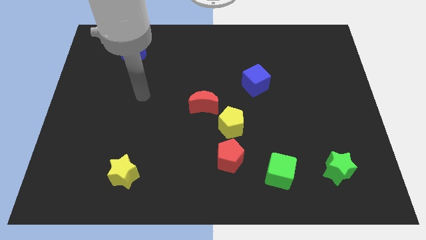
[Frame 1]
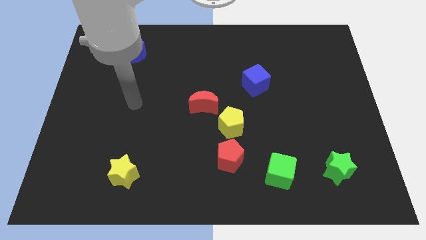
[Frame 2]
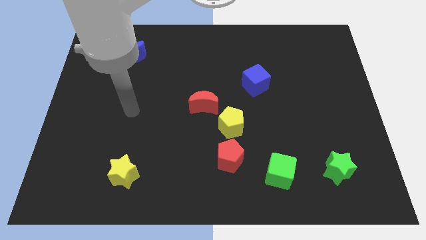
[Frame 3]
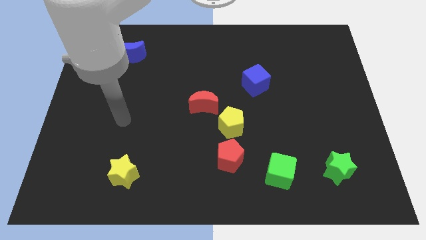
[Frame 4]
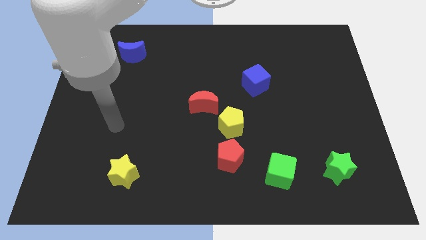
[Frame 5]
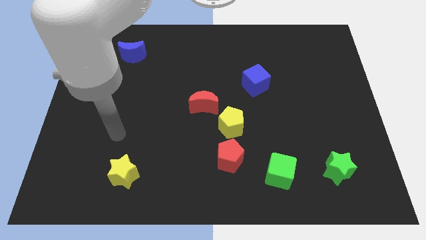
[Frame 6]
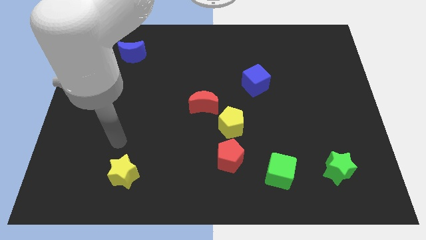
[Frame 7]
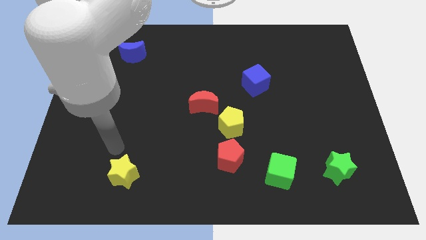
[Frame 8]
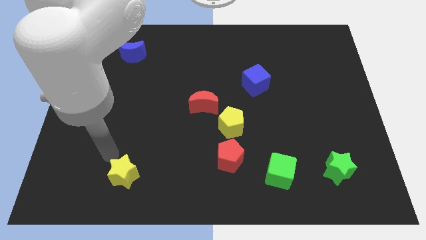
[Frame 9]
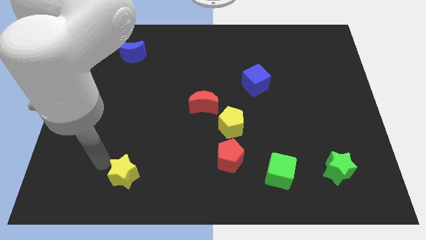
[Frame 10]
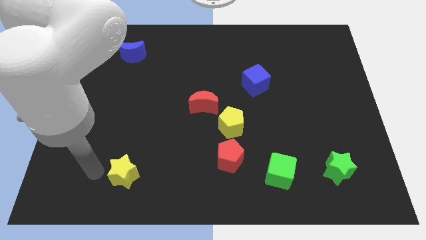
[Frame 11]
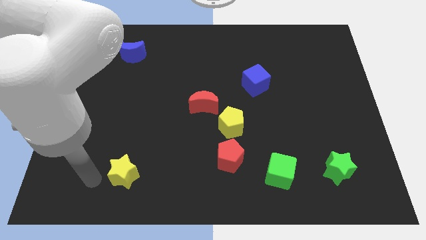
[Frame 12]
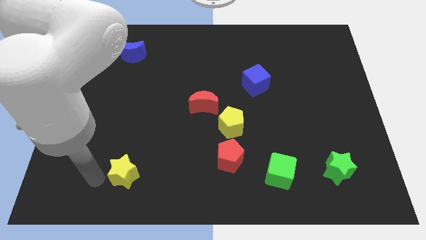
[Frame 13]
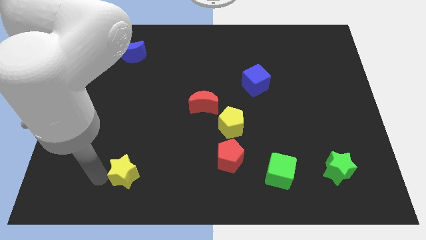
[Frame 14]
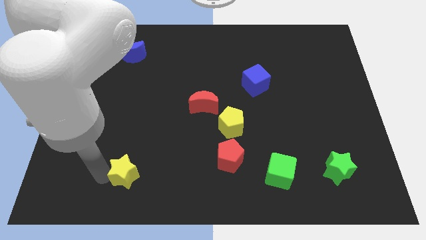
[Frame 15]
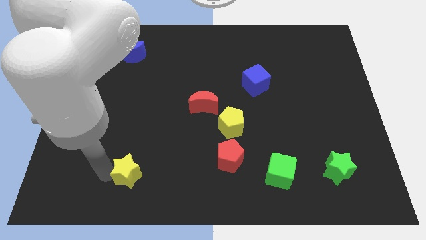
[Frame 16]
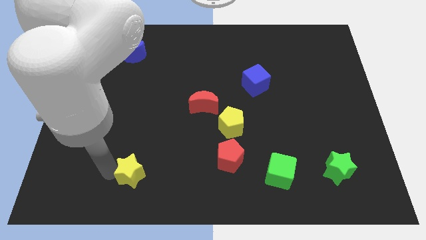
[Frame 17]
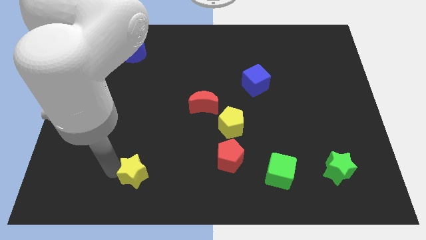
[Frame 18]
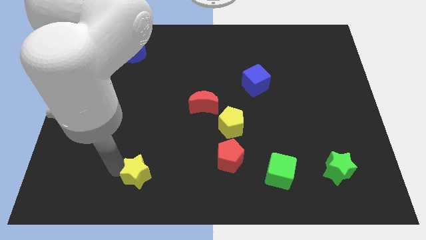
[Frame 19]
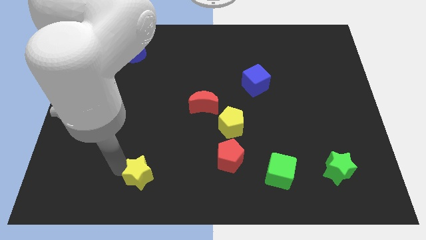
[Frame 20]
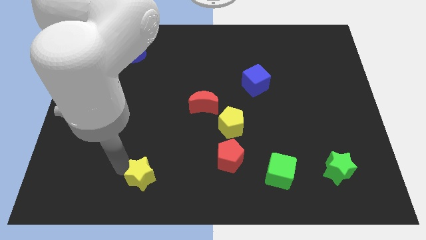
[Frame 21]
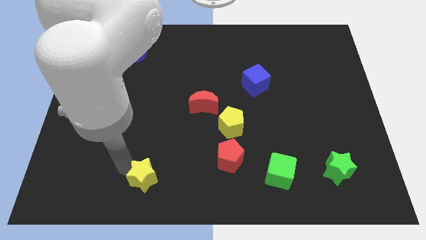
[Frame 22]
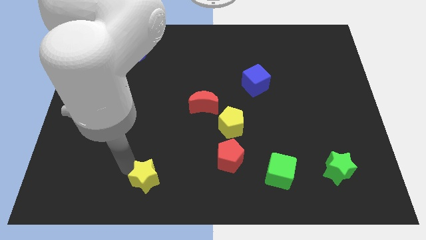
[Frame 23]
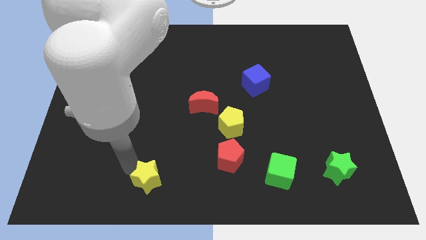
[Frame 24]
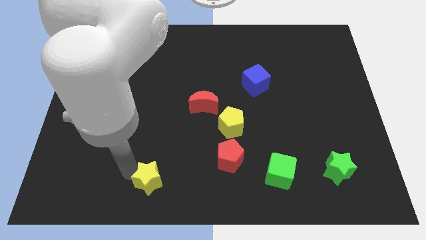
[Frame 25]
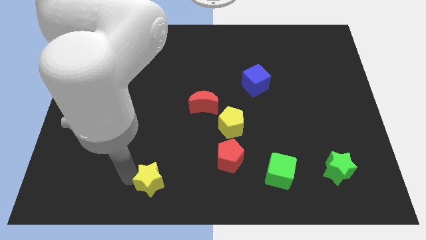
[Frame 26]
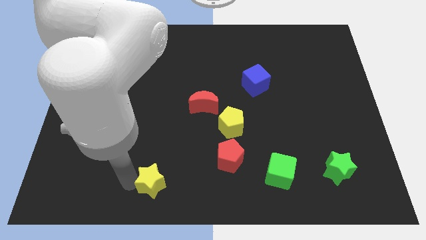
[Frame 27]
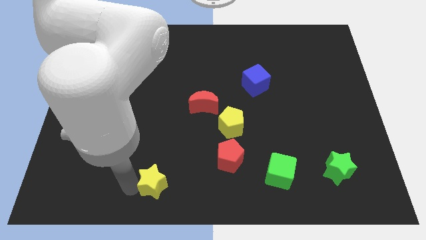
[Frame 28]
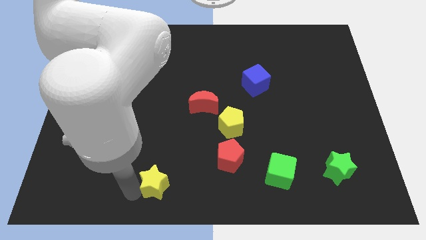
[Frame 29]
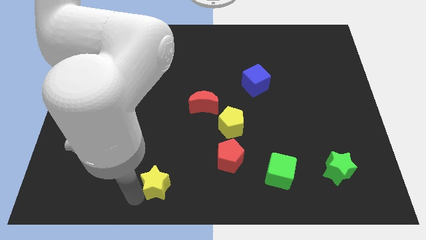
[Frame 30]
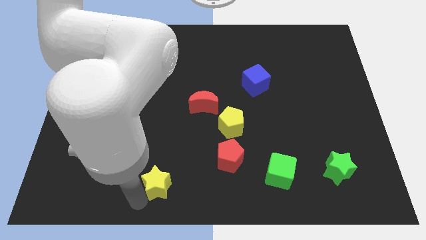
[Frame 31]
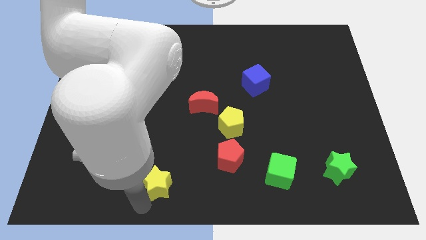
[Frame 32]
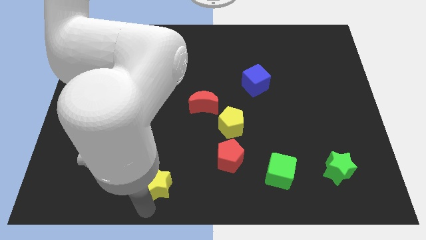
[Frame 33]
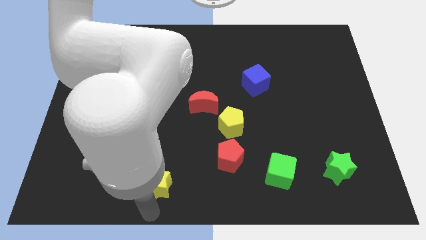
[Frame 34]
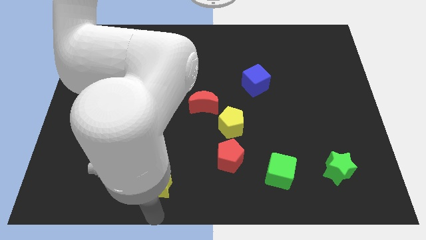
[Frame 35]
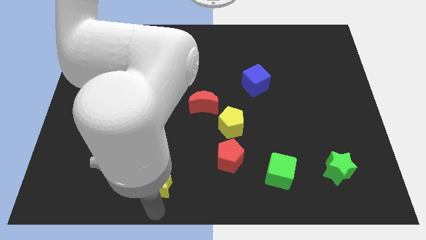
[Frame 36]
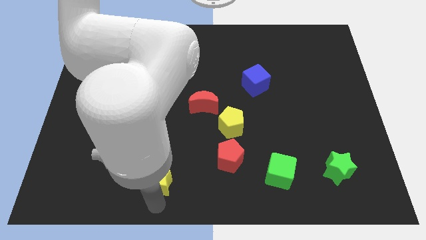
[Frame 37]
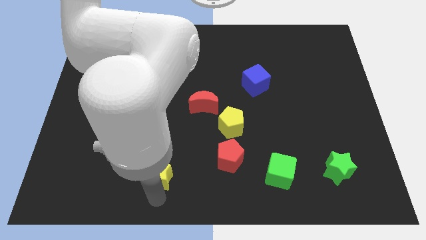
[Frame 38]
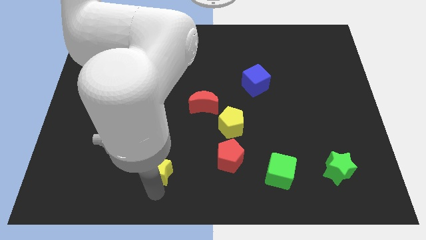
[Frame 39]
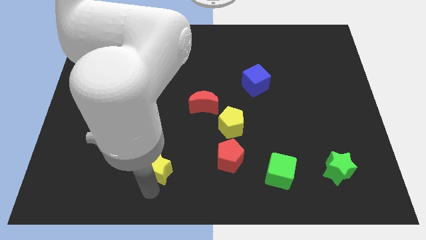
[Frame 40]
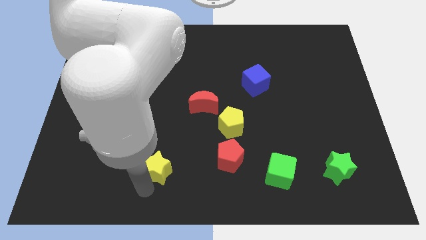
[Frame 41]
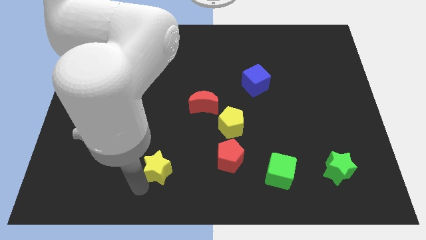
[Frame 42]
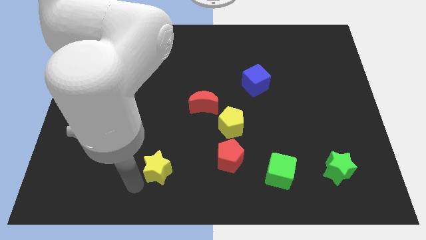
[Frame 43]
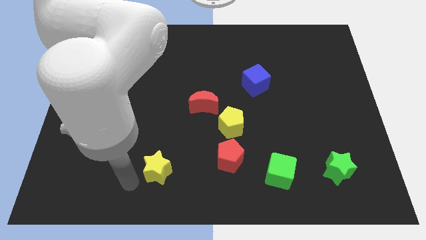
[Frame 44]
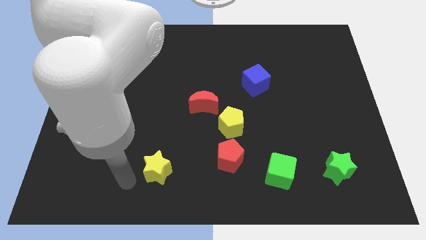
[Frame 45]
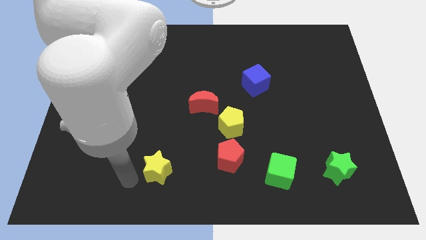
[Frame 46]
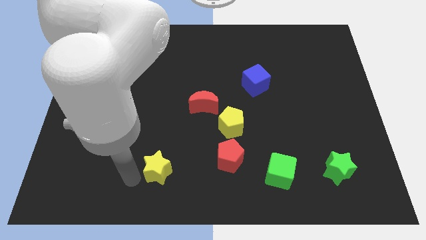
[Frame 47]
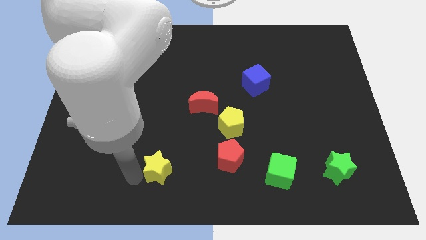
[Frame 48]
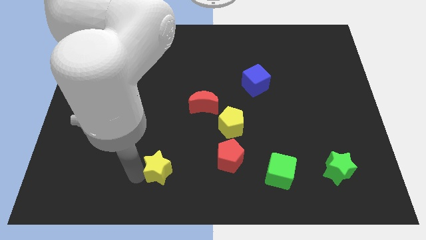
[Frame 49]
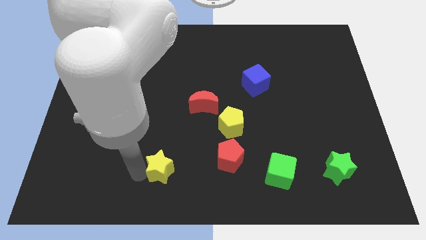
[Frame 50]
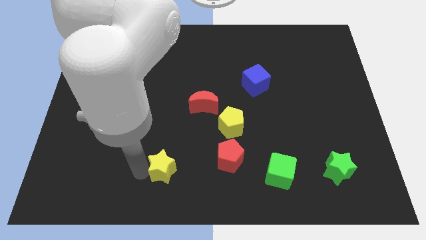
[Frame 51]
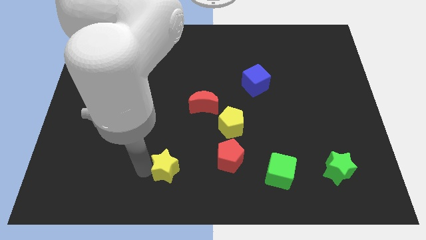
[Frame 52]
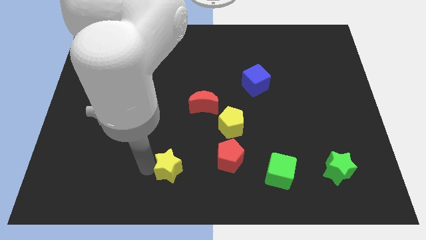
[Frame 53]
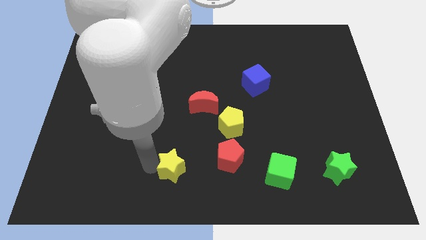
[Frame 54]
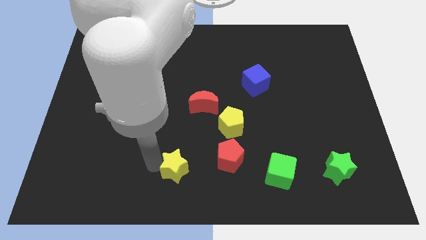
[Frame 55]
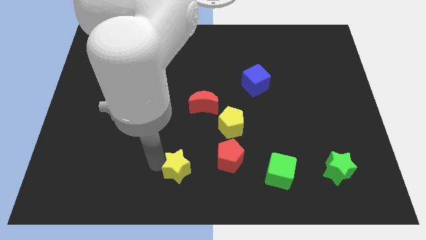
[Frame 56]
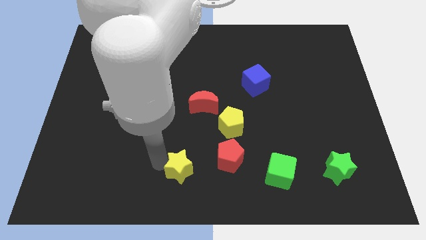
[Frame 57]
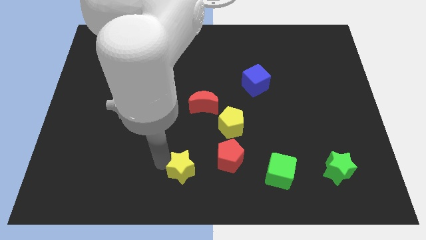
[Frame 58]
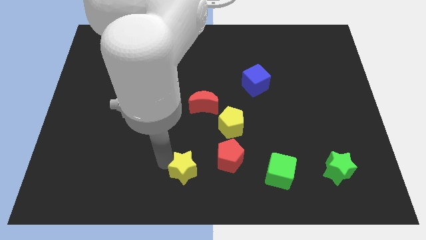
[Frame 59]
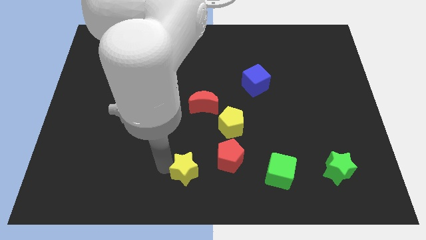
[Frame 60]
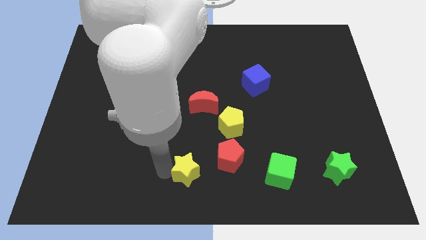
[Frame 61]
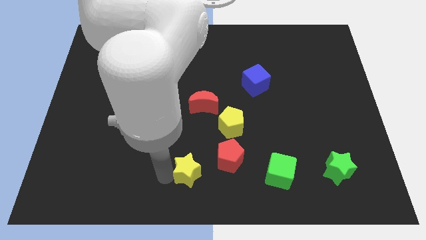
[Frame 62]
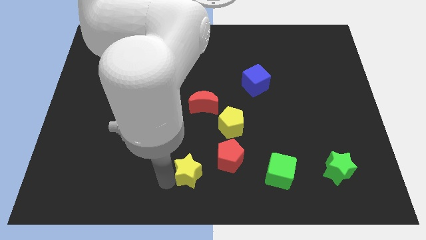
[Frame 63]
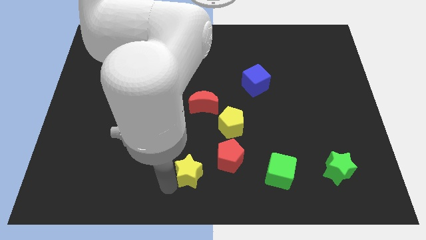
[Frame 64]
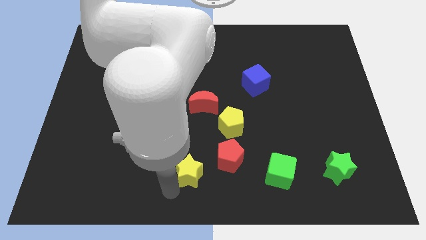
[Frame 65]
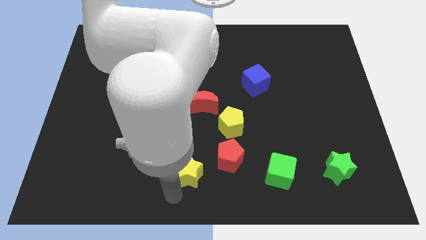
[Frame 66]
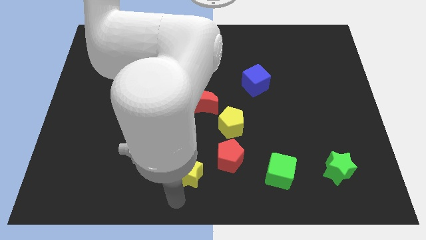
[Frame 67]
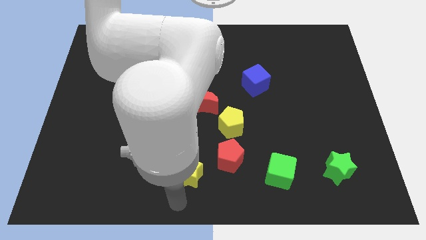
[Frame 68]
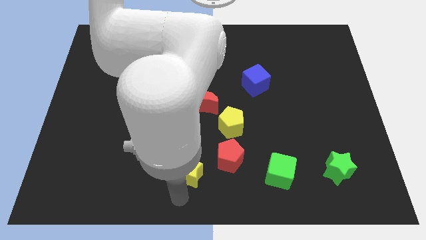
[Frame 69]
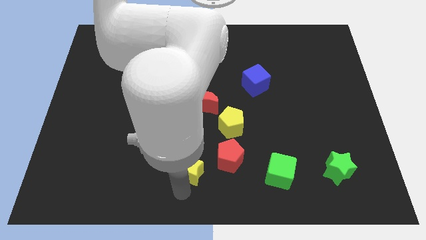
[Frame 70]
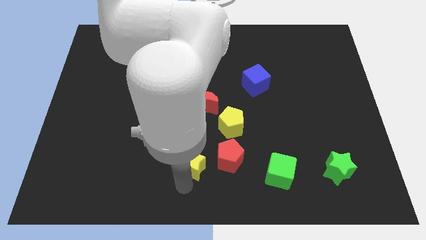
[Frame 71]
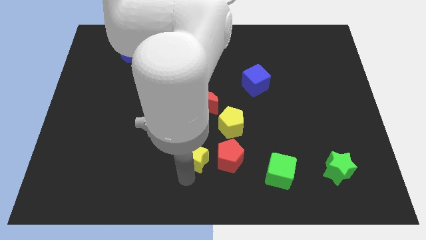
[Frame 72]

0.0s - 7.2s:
push the yellow star to the bottom of the red moon

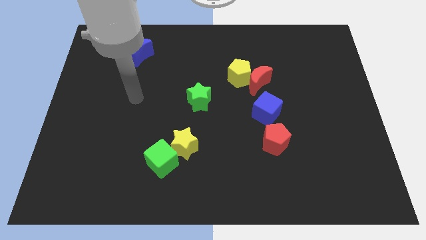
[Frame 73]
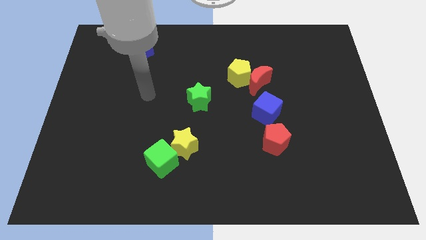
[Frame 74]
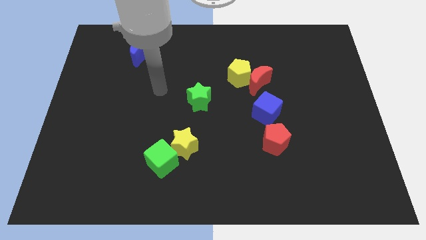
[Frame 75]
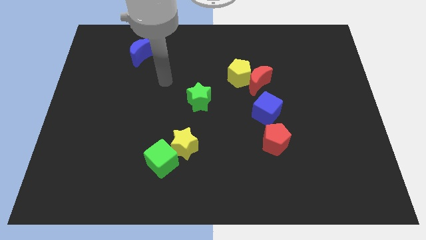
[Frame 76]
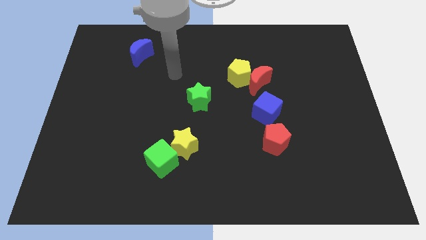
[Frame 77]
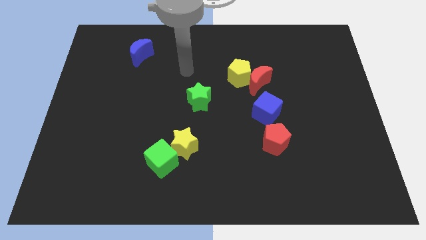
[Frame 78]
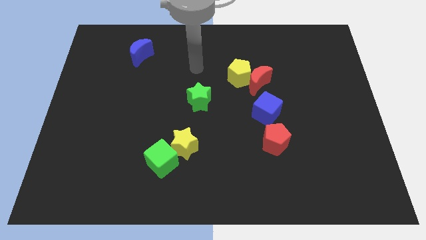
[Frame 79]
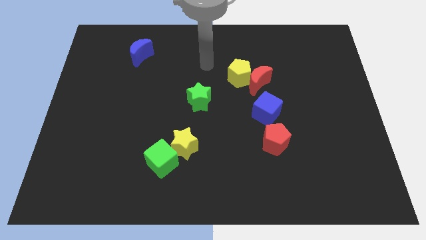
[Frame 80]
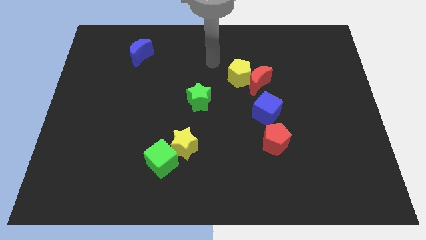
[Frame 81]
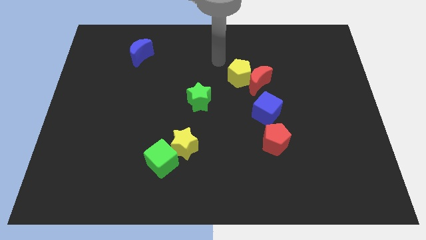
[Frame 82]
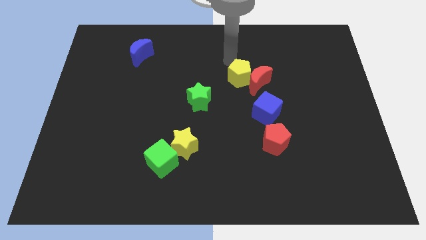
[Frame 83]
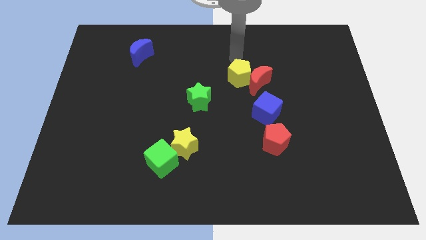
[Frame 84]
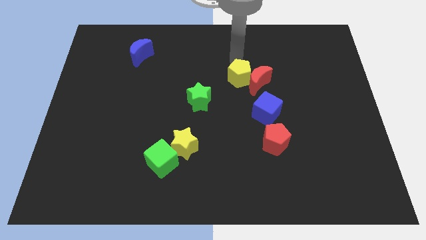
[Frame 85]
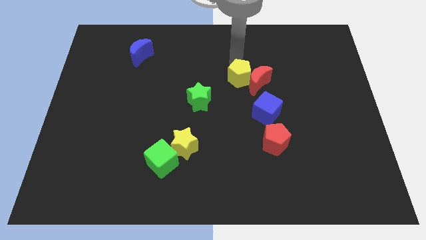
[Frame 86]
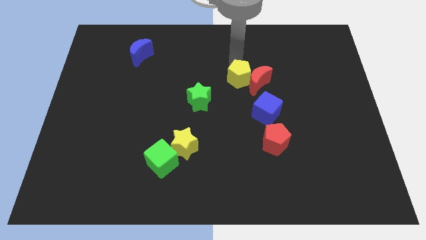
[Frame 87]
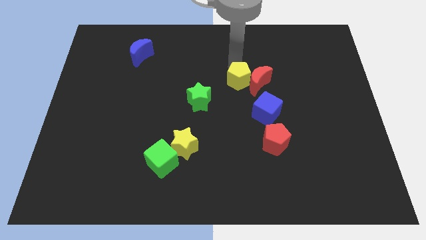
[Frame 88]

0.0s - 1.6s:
move the yellow pentagon to the top left side of the blue cube
